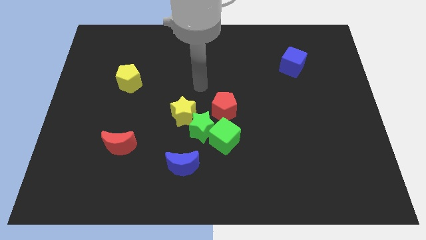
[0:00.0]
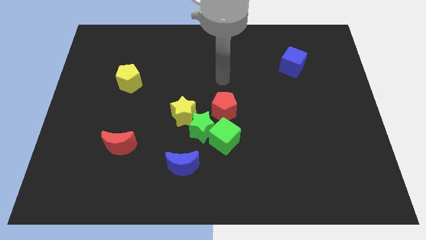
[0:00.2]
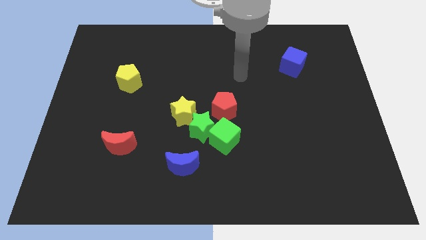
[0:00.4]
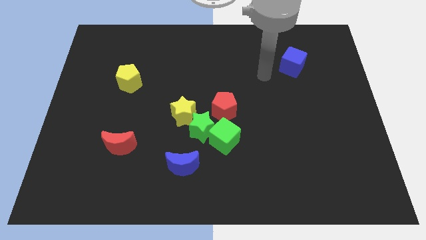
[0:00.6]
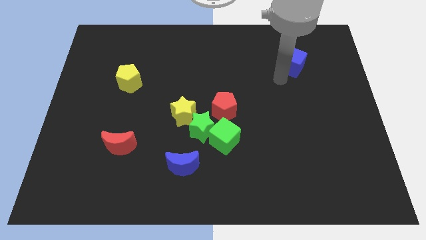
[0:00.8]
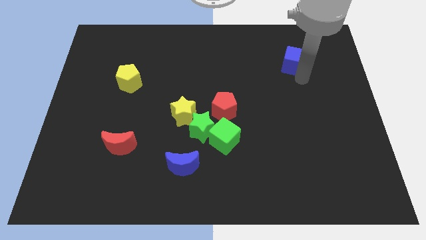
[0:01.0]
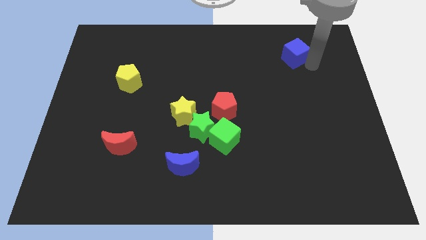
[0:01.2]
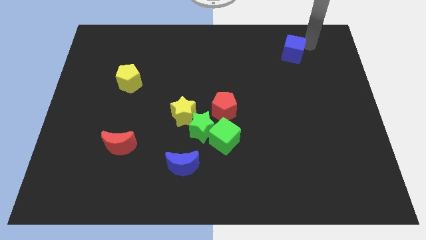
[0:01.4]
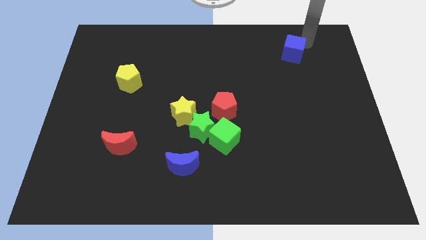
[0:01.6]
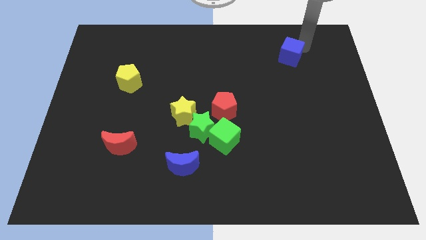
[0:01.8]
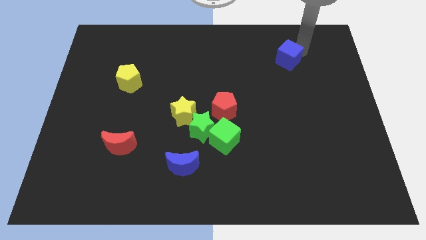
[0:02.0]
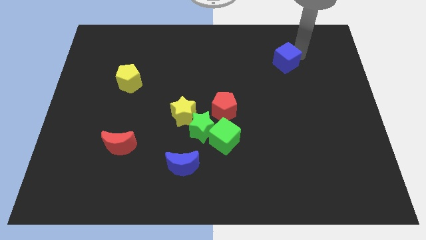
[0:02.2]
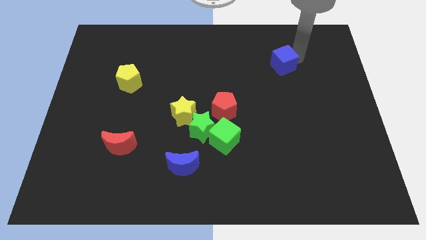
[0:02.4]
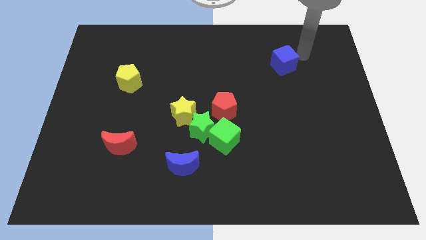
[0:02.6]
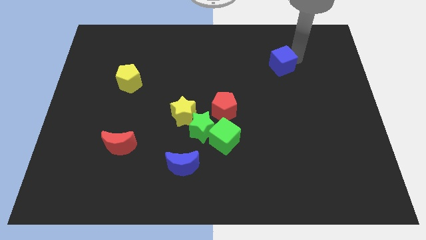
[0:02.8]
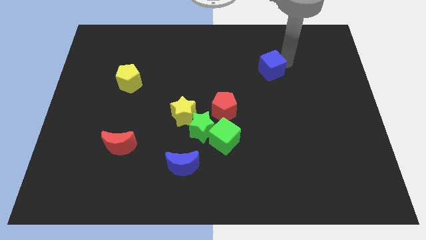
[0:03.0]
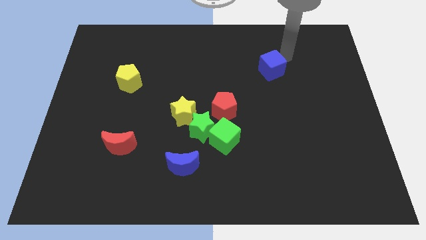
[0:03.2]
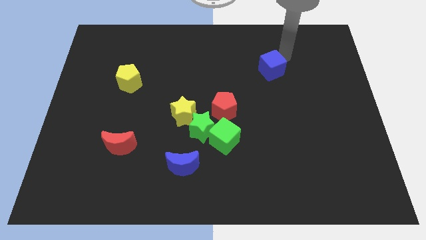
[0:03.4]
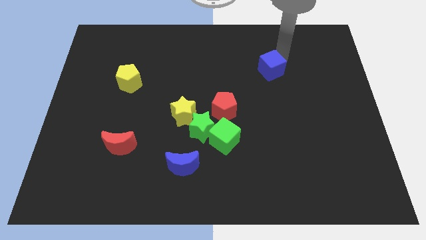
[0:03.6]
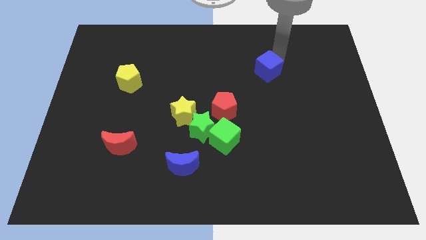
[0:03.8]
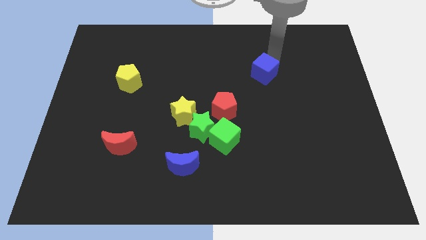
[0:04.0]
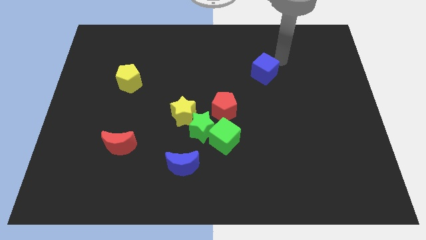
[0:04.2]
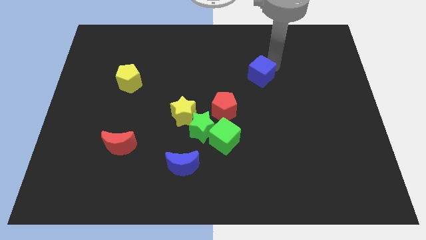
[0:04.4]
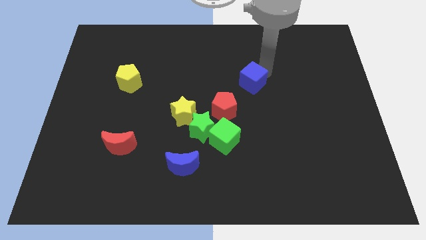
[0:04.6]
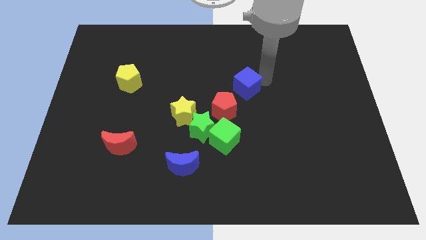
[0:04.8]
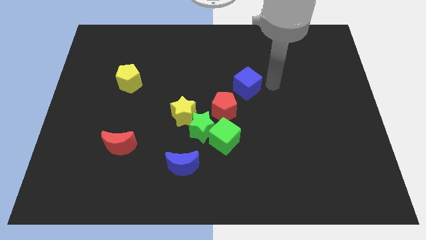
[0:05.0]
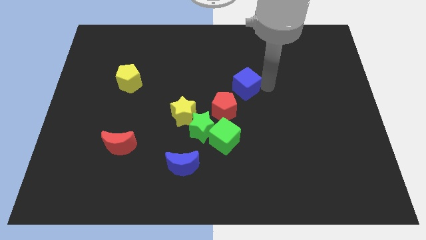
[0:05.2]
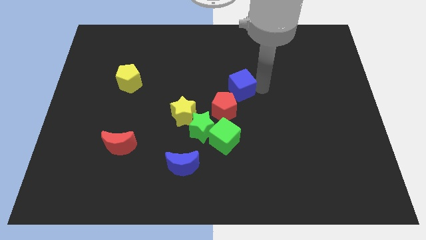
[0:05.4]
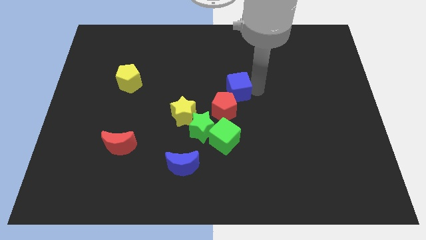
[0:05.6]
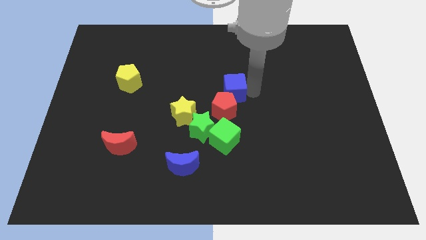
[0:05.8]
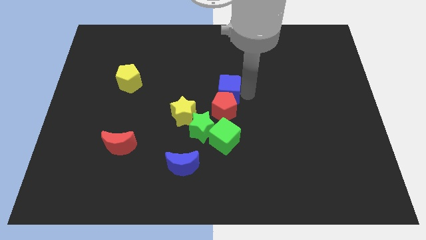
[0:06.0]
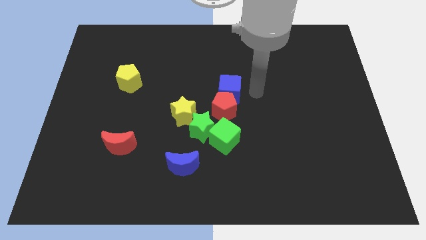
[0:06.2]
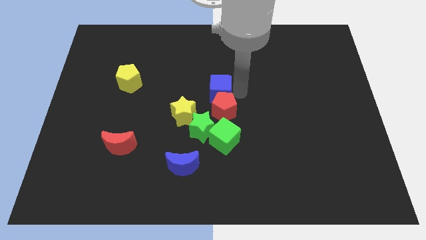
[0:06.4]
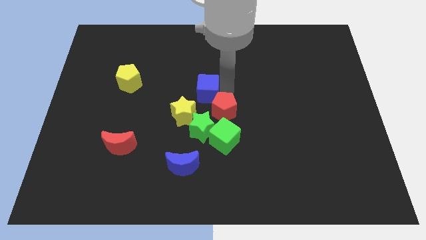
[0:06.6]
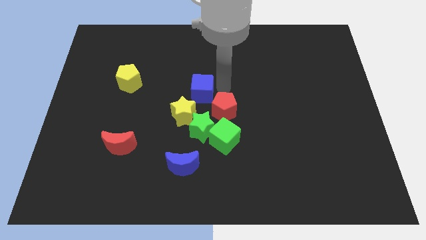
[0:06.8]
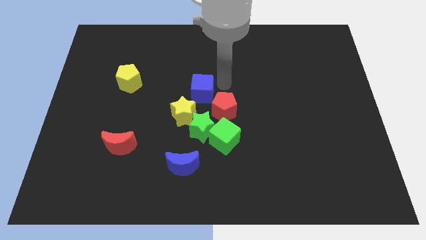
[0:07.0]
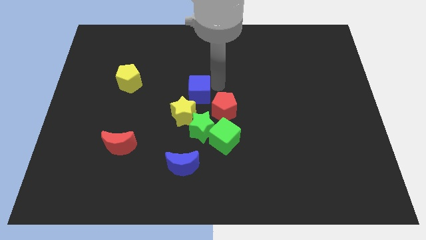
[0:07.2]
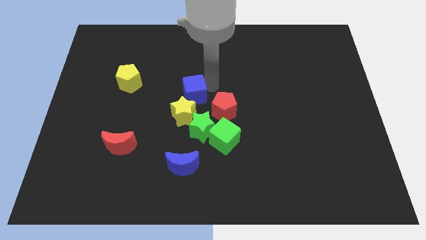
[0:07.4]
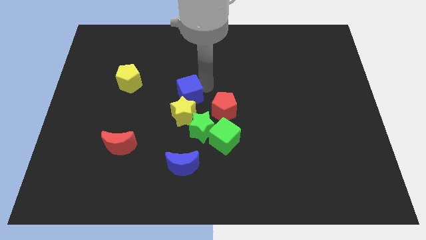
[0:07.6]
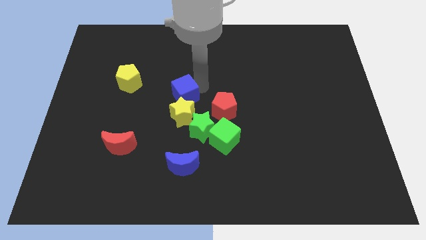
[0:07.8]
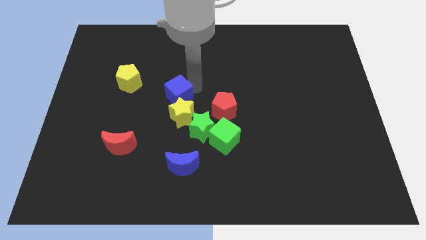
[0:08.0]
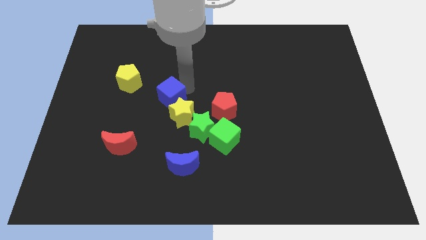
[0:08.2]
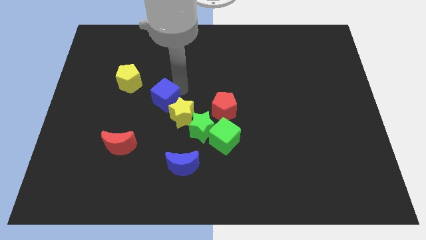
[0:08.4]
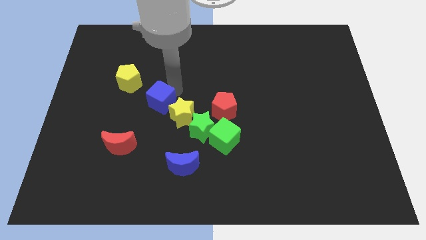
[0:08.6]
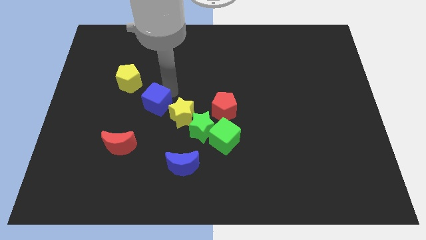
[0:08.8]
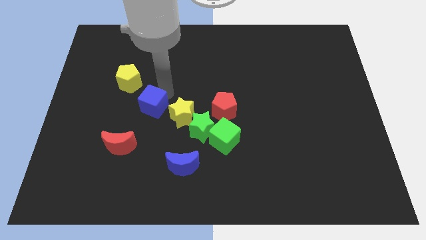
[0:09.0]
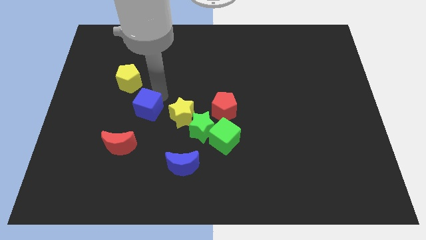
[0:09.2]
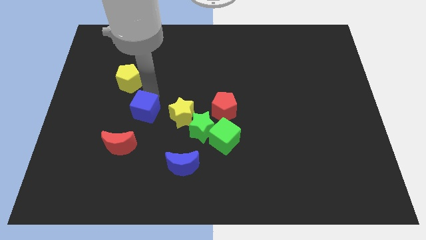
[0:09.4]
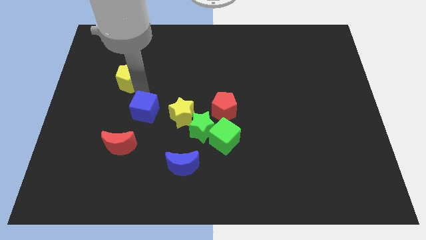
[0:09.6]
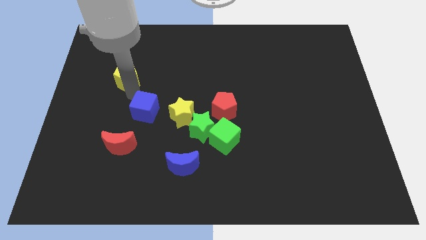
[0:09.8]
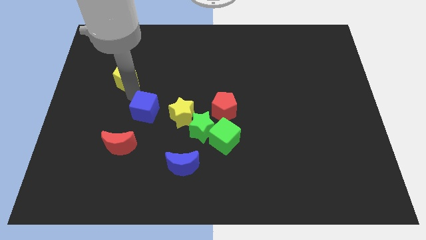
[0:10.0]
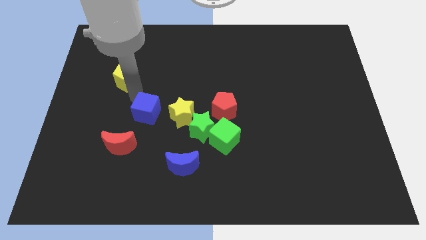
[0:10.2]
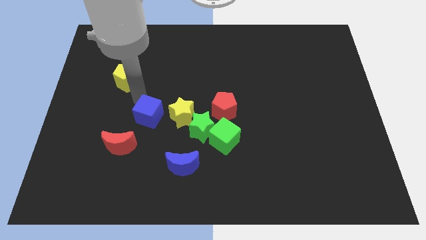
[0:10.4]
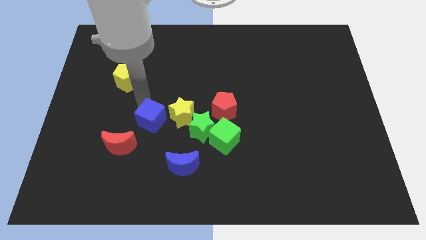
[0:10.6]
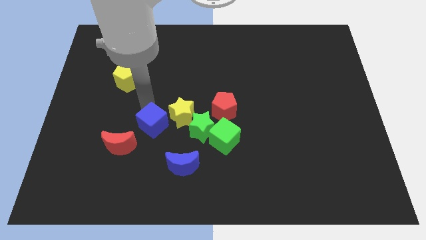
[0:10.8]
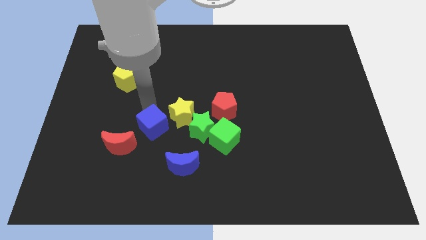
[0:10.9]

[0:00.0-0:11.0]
move the blue cube diagonally up and to the left of the blue moon

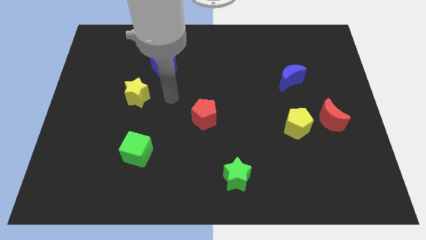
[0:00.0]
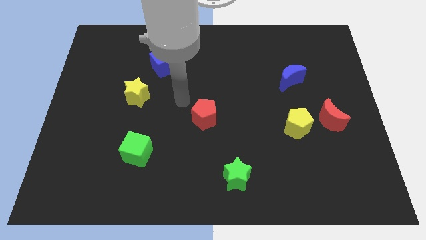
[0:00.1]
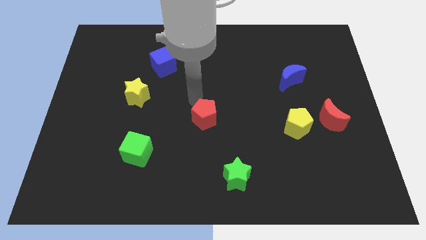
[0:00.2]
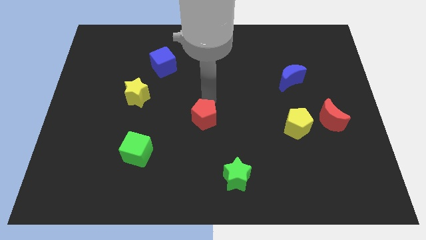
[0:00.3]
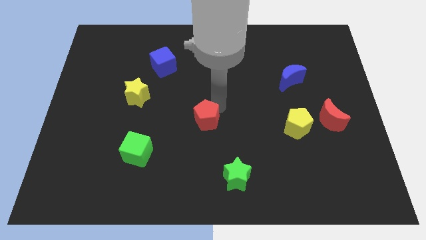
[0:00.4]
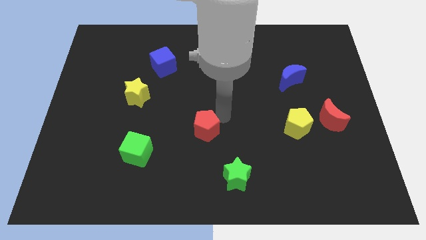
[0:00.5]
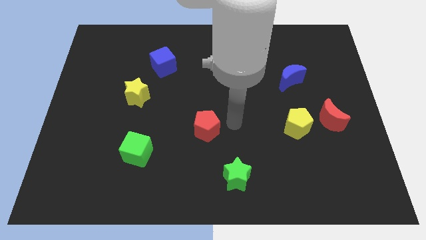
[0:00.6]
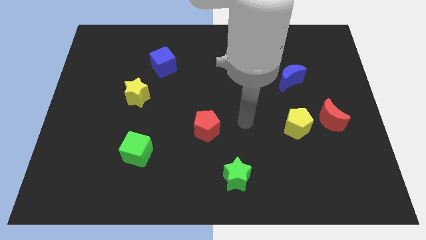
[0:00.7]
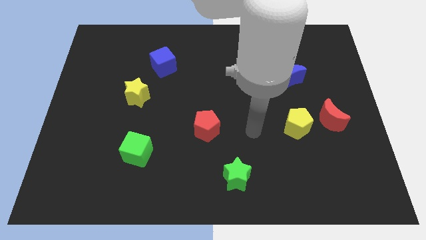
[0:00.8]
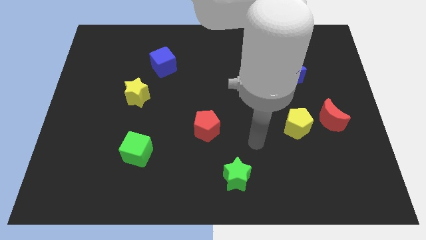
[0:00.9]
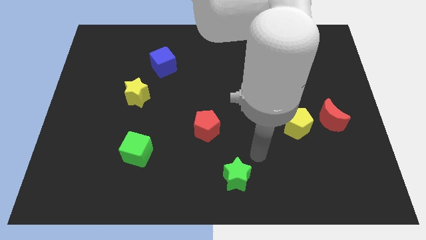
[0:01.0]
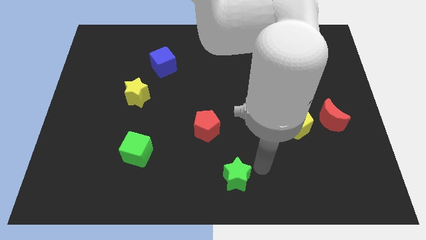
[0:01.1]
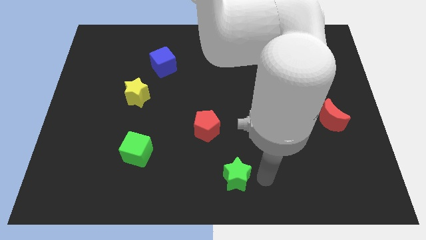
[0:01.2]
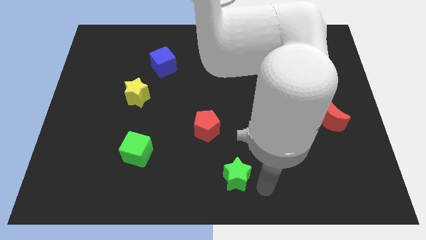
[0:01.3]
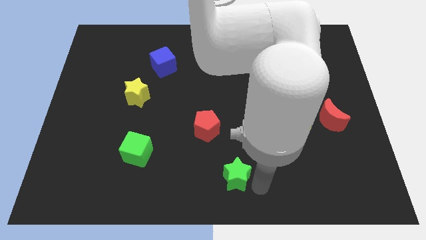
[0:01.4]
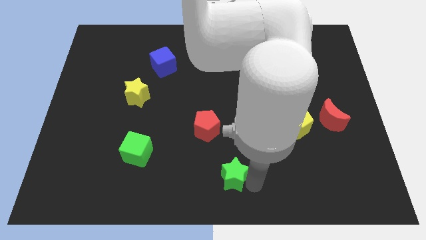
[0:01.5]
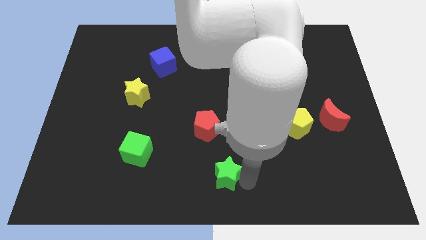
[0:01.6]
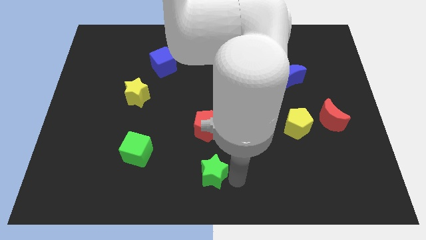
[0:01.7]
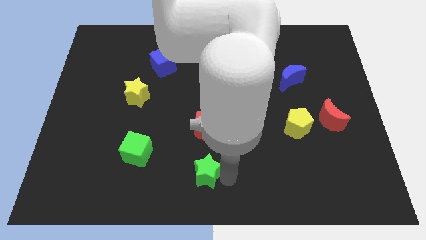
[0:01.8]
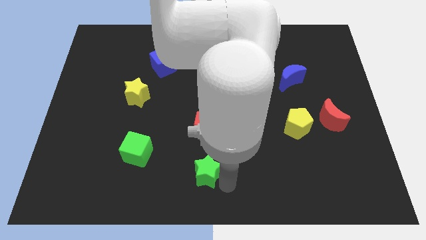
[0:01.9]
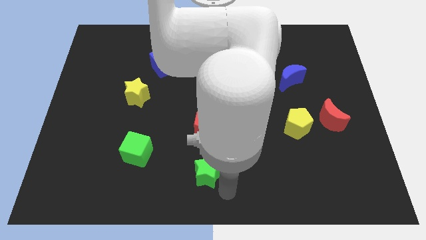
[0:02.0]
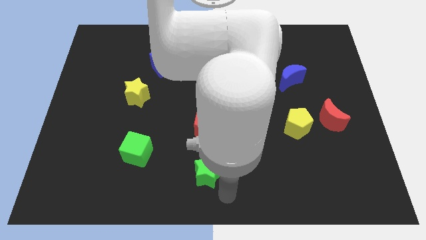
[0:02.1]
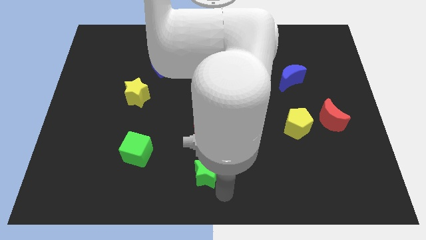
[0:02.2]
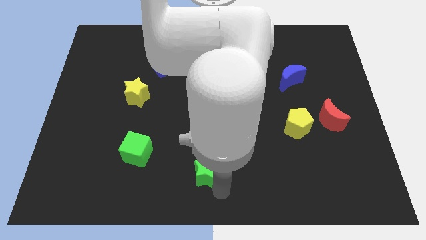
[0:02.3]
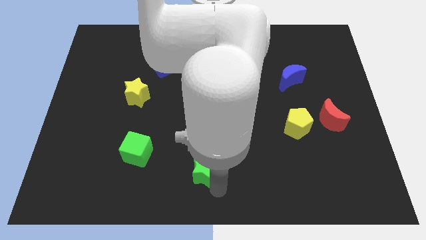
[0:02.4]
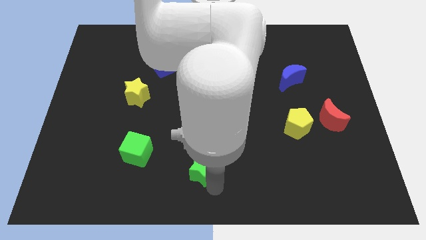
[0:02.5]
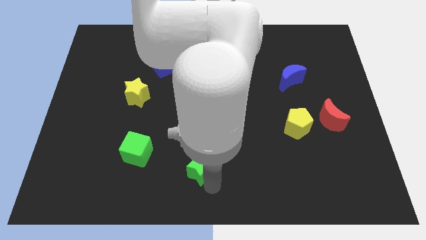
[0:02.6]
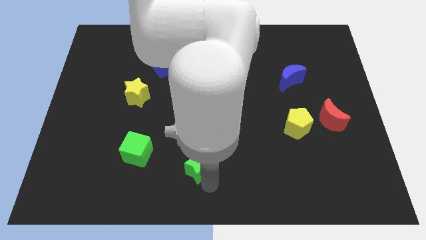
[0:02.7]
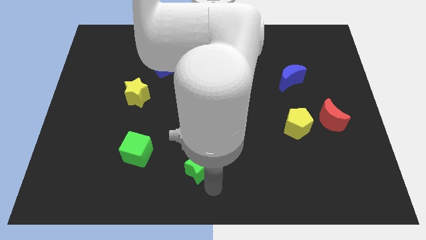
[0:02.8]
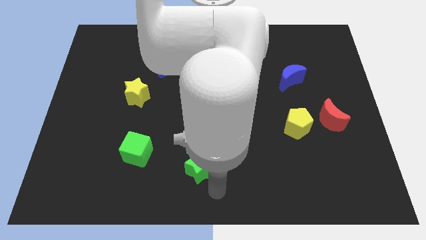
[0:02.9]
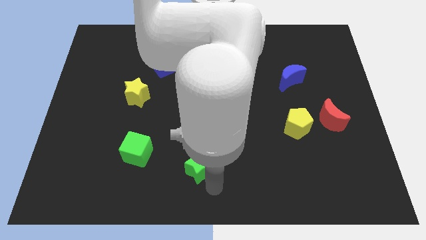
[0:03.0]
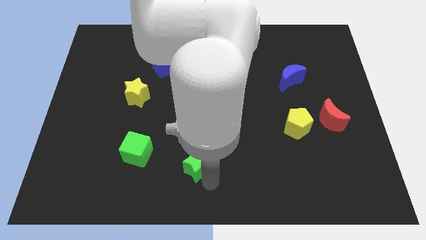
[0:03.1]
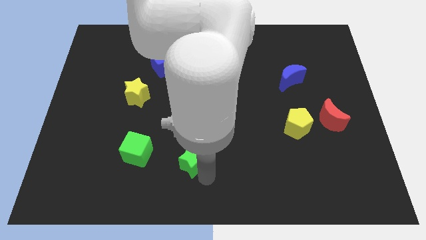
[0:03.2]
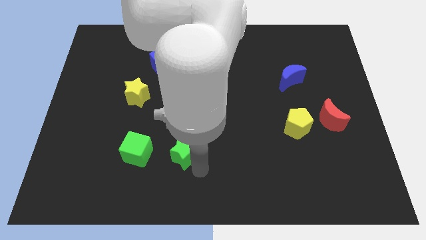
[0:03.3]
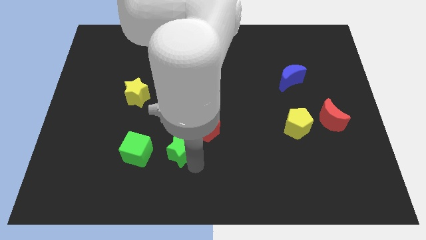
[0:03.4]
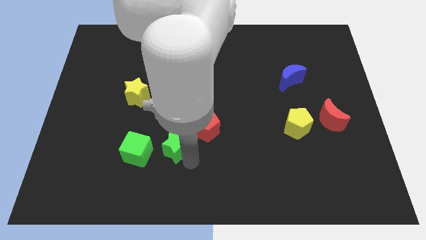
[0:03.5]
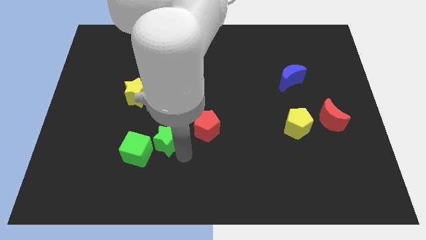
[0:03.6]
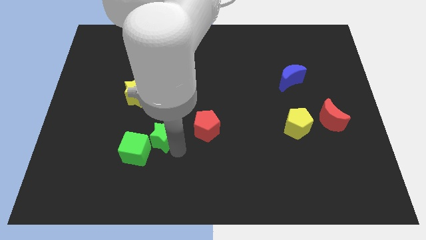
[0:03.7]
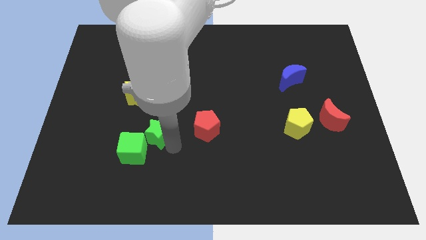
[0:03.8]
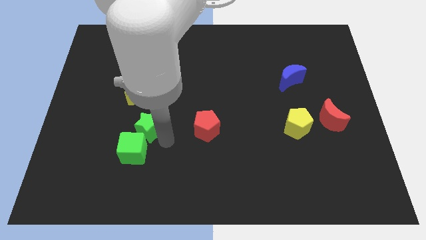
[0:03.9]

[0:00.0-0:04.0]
put the green star to the top of the green cube
